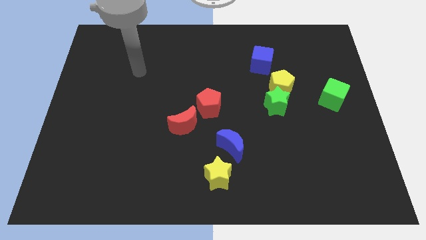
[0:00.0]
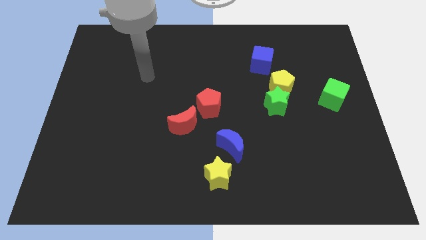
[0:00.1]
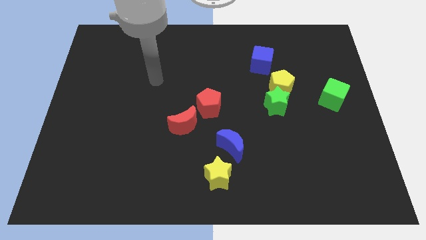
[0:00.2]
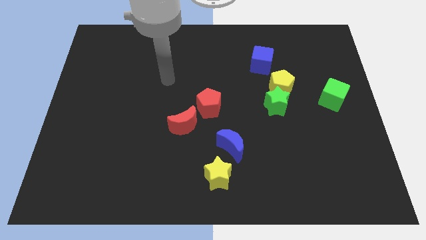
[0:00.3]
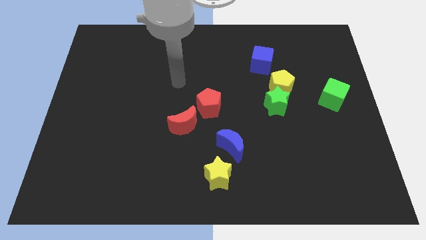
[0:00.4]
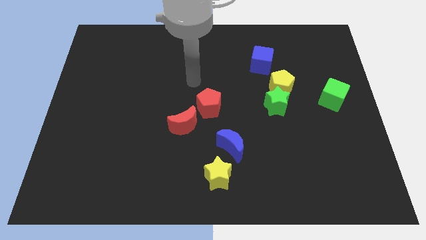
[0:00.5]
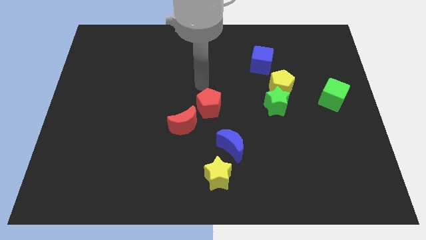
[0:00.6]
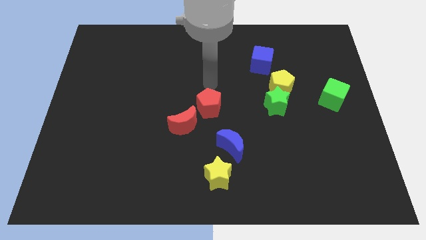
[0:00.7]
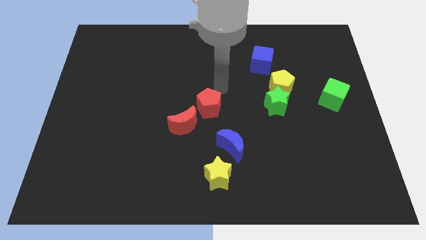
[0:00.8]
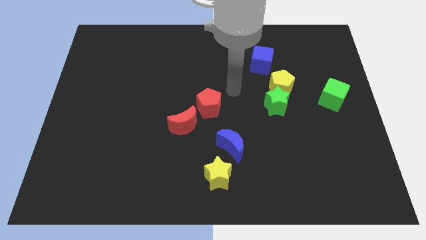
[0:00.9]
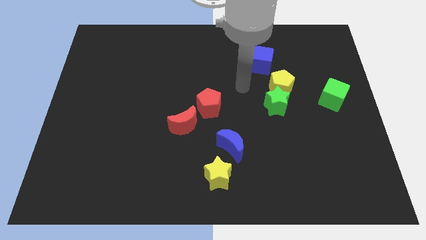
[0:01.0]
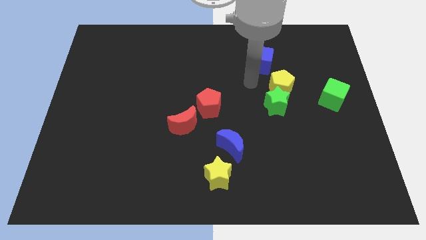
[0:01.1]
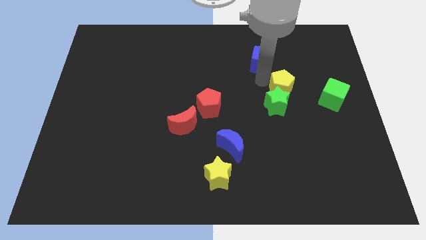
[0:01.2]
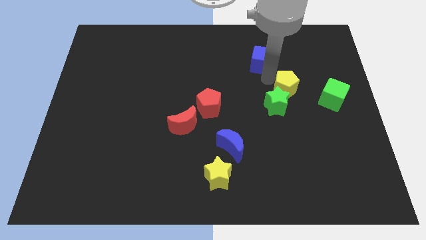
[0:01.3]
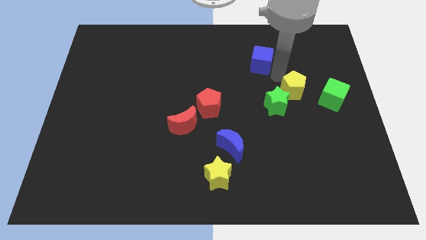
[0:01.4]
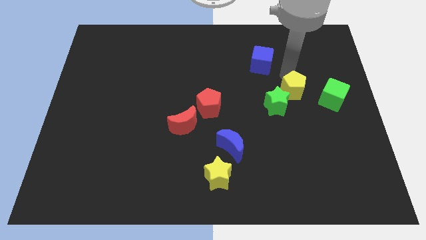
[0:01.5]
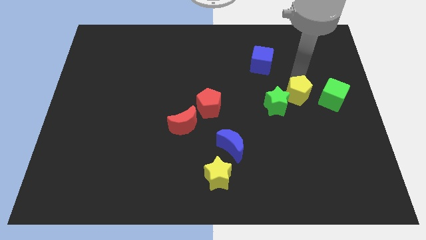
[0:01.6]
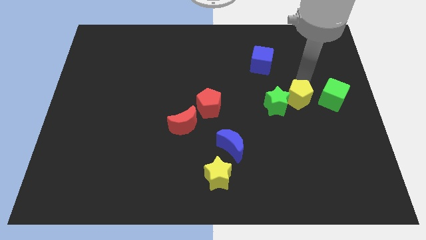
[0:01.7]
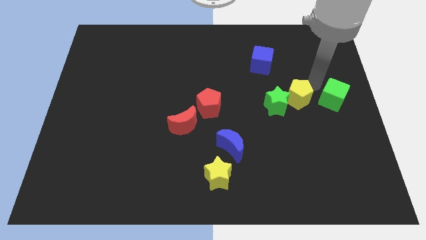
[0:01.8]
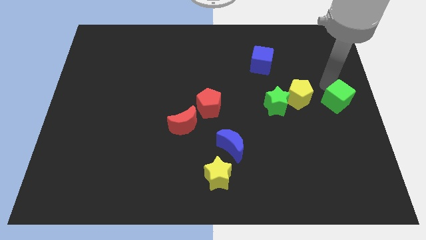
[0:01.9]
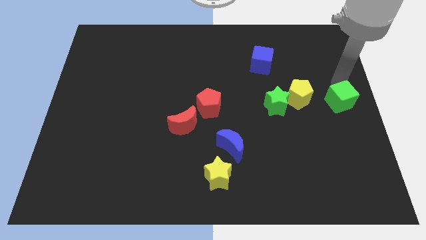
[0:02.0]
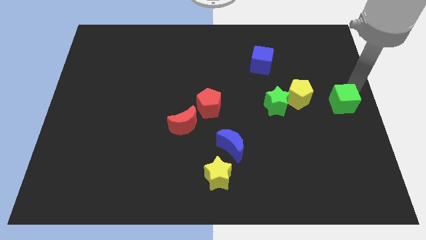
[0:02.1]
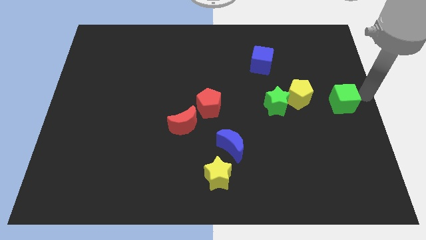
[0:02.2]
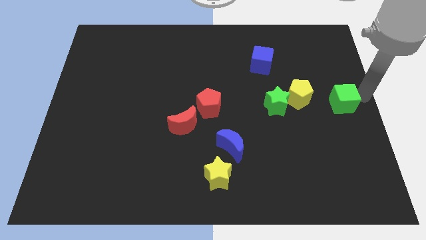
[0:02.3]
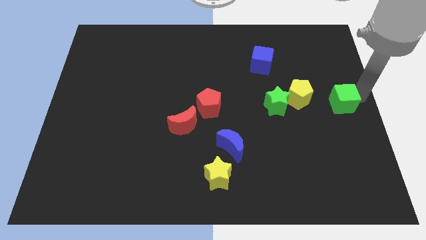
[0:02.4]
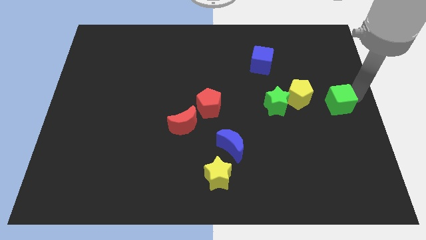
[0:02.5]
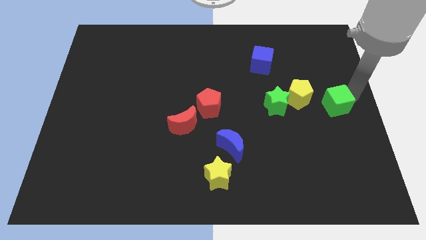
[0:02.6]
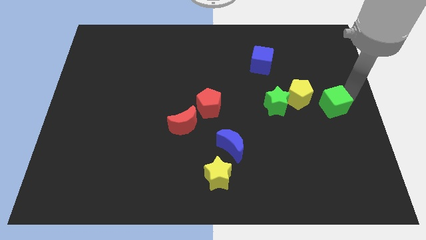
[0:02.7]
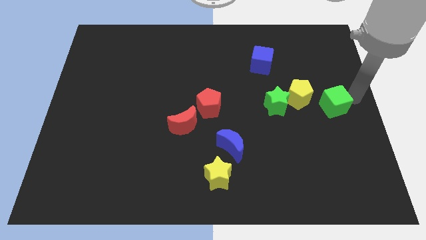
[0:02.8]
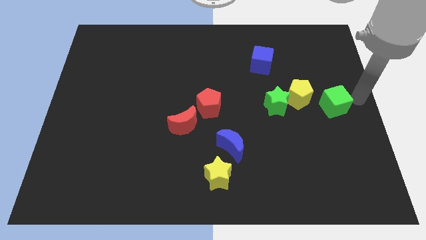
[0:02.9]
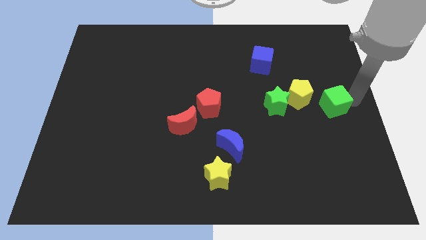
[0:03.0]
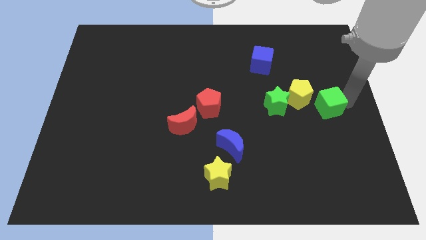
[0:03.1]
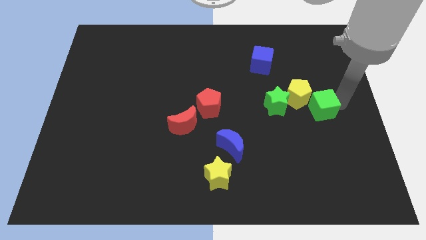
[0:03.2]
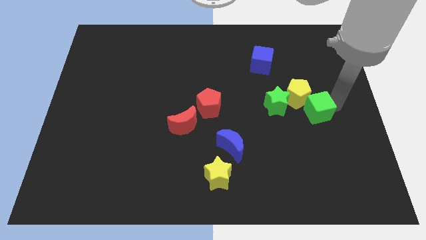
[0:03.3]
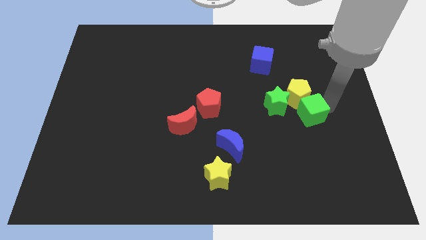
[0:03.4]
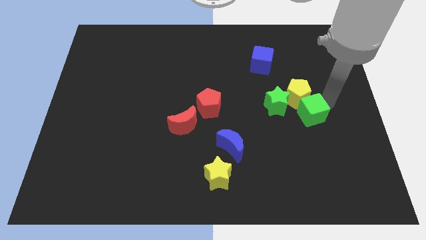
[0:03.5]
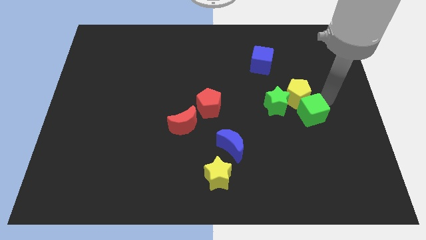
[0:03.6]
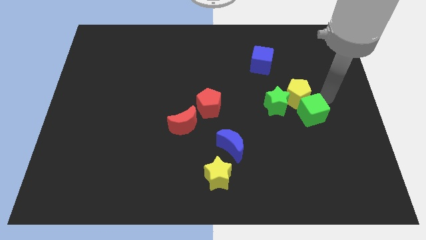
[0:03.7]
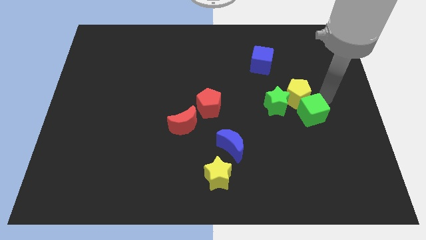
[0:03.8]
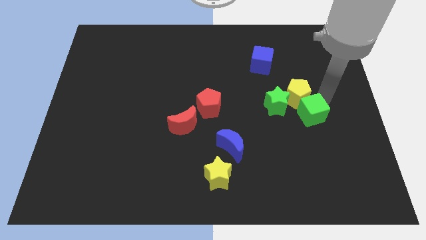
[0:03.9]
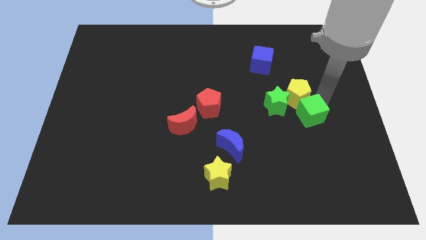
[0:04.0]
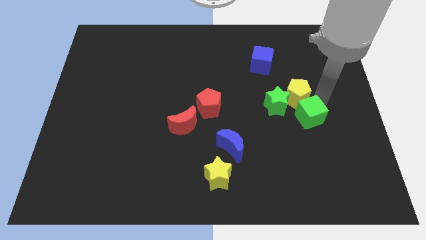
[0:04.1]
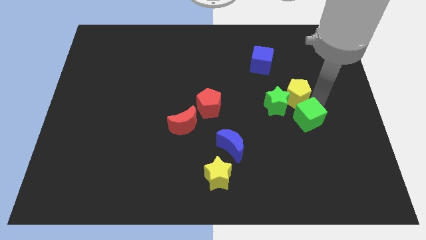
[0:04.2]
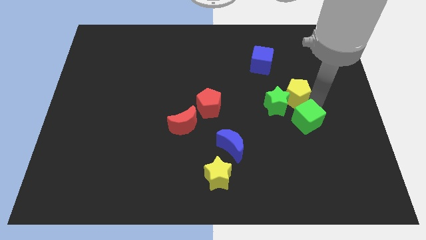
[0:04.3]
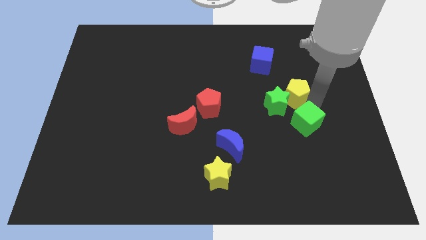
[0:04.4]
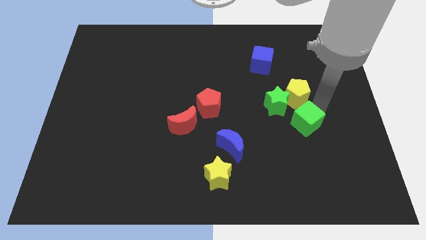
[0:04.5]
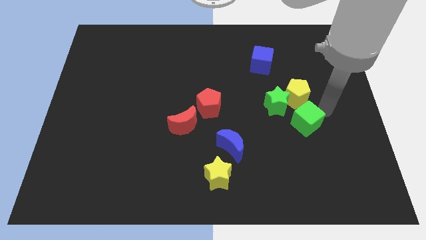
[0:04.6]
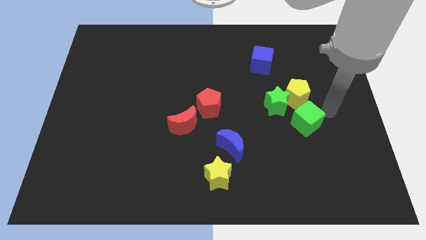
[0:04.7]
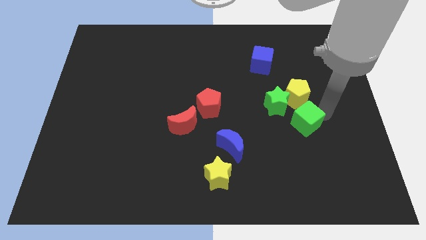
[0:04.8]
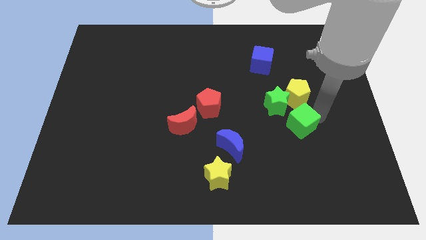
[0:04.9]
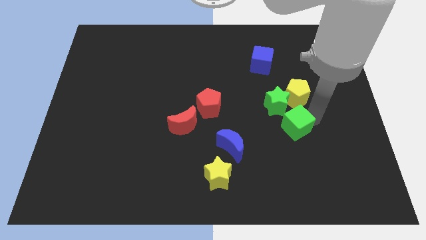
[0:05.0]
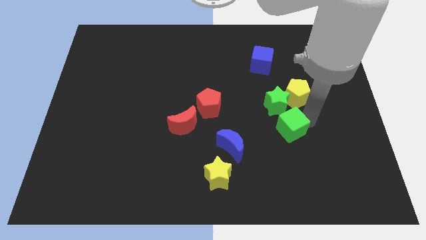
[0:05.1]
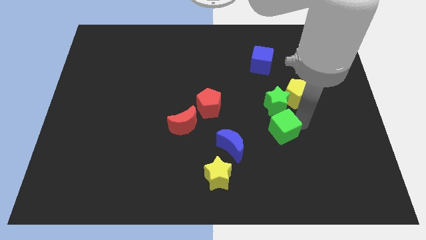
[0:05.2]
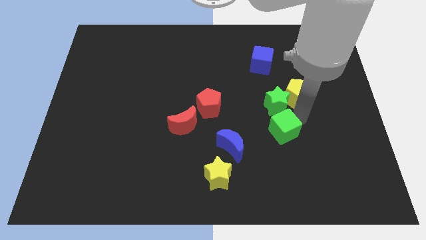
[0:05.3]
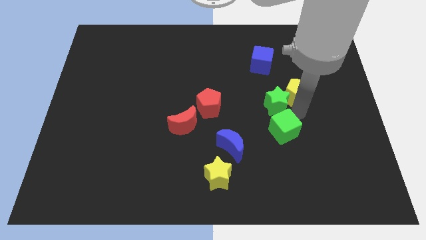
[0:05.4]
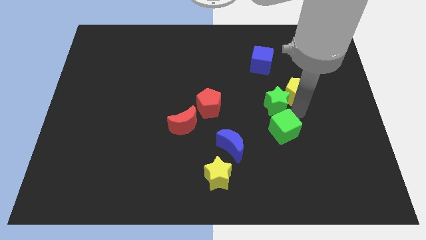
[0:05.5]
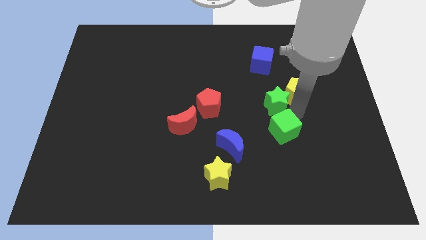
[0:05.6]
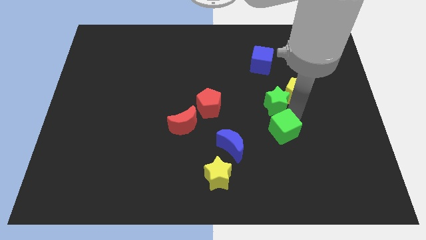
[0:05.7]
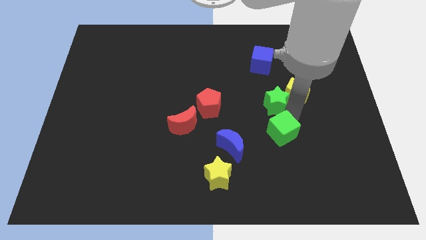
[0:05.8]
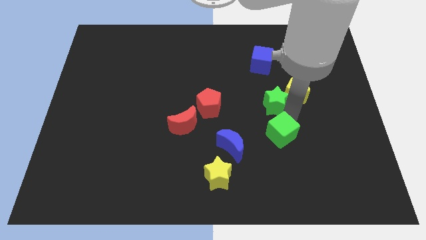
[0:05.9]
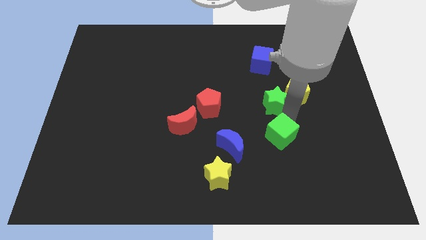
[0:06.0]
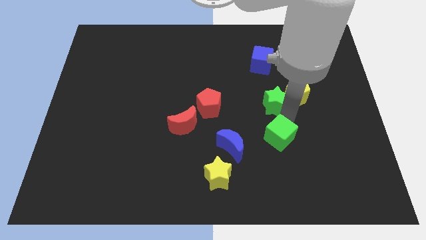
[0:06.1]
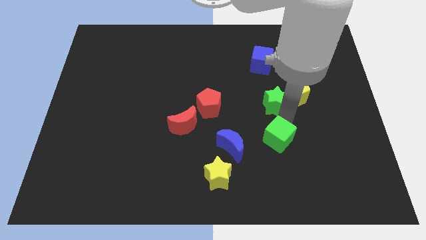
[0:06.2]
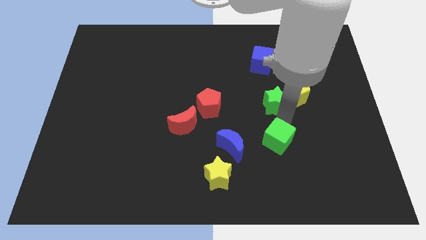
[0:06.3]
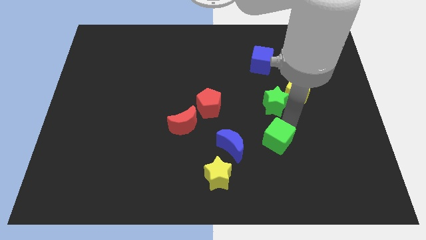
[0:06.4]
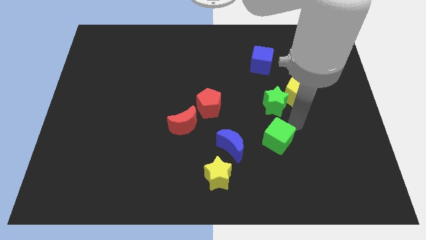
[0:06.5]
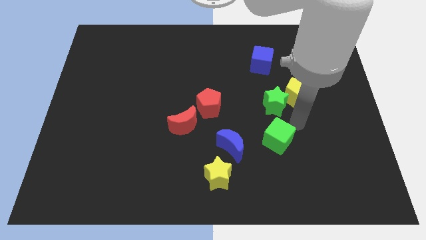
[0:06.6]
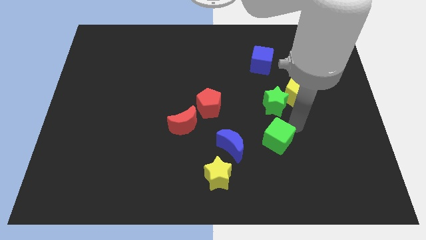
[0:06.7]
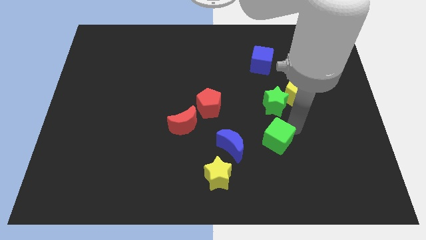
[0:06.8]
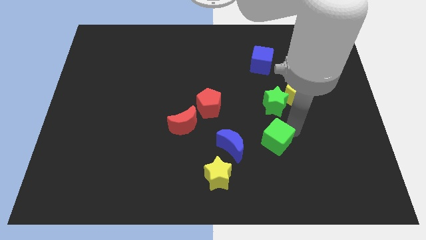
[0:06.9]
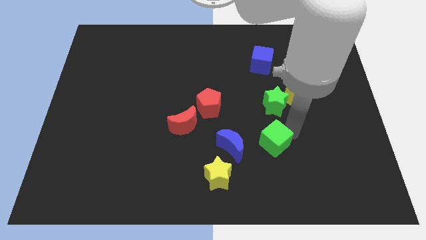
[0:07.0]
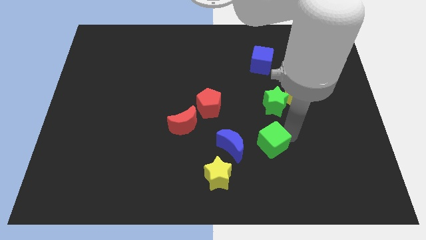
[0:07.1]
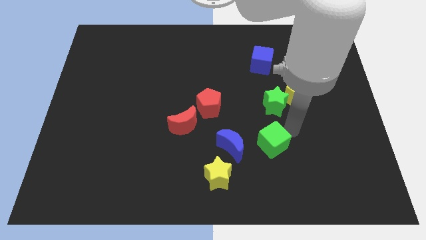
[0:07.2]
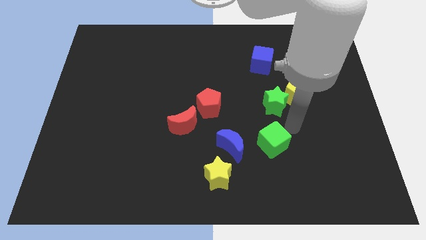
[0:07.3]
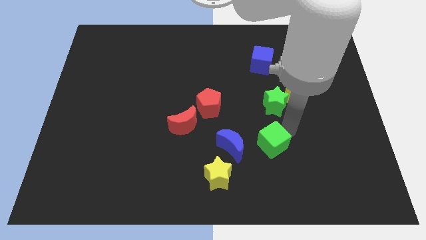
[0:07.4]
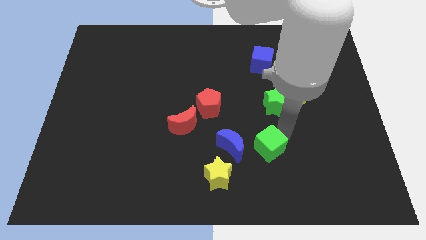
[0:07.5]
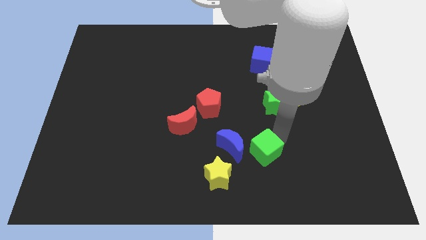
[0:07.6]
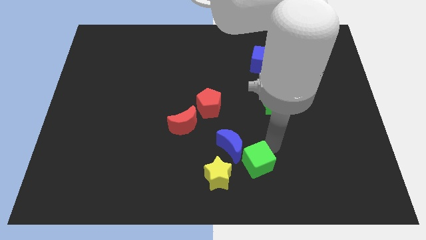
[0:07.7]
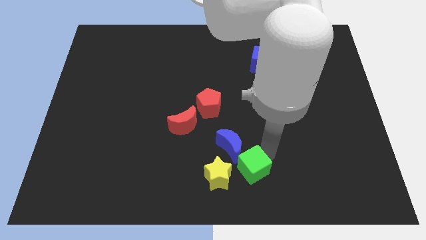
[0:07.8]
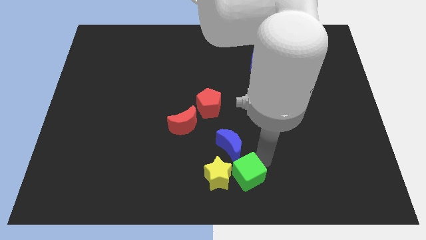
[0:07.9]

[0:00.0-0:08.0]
push the green cube towards the yellow star
